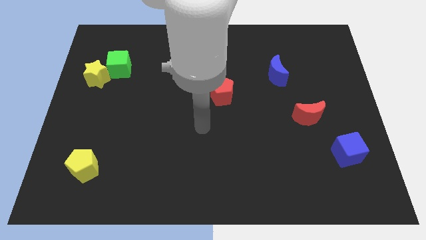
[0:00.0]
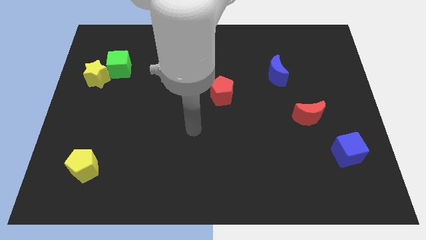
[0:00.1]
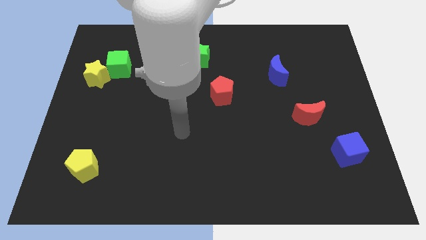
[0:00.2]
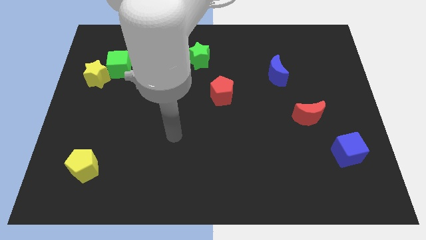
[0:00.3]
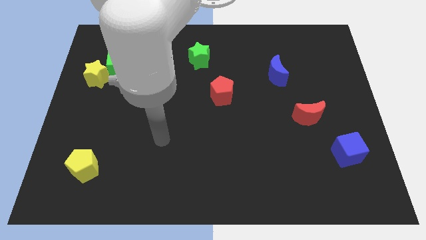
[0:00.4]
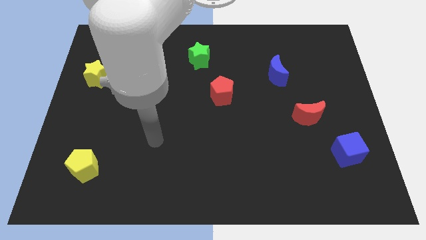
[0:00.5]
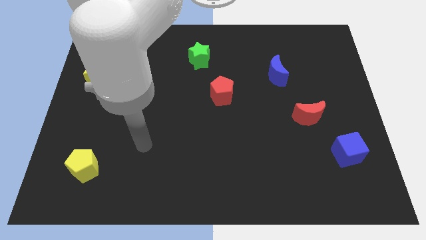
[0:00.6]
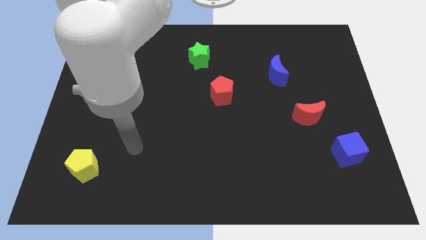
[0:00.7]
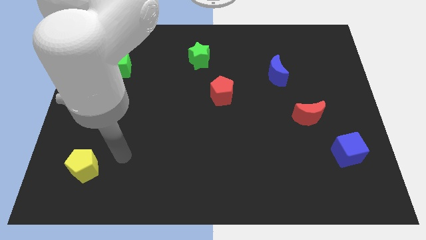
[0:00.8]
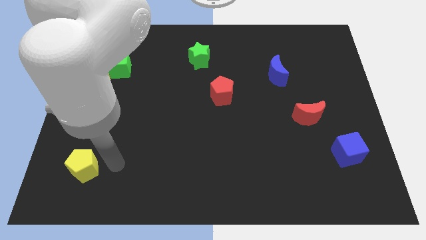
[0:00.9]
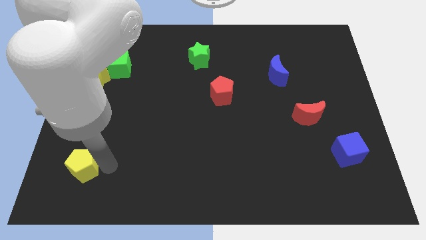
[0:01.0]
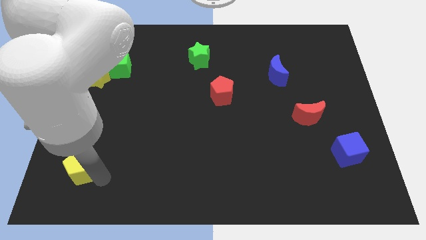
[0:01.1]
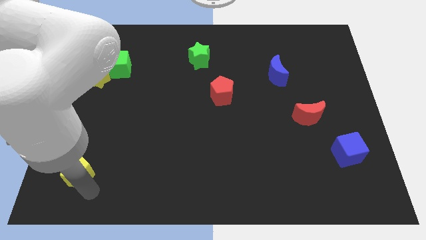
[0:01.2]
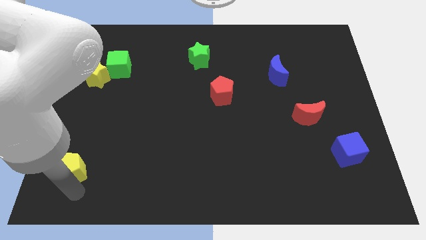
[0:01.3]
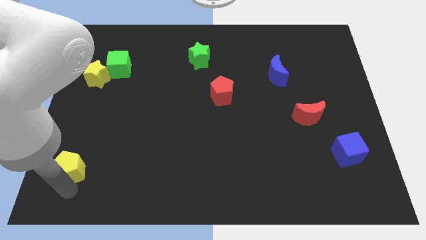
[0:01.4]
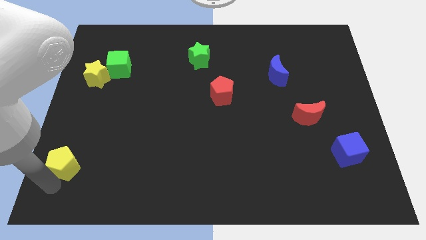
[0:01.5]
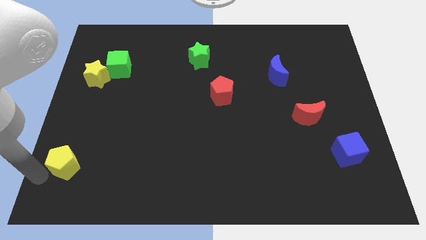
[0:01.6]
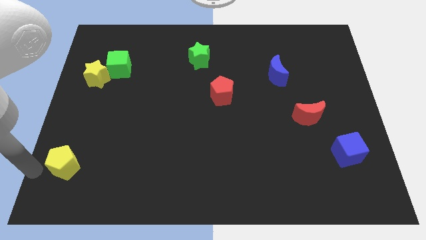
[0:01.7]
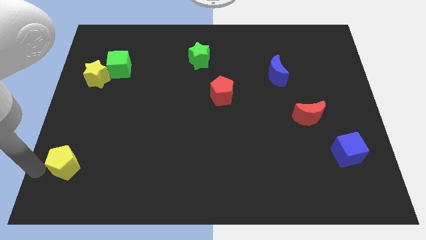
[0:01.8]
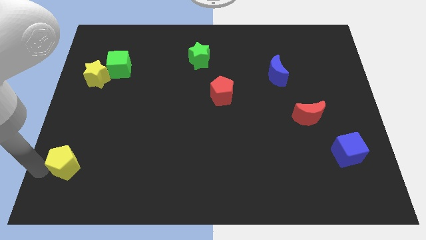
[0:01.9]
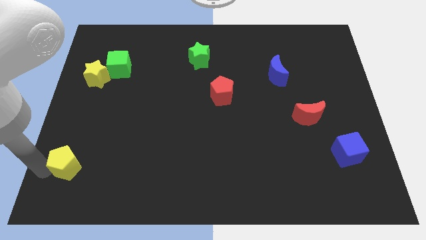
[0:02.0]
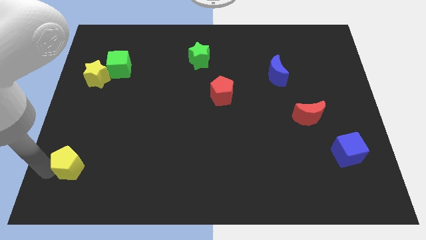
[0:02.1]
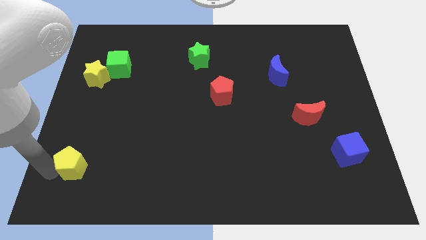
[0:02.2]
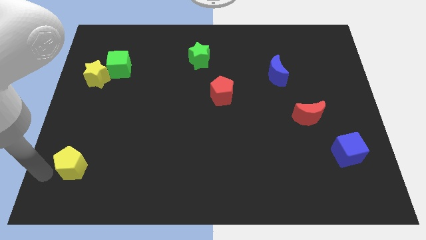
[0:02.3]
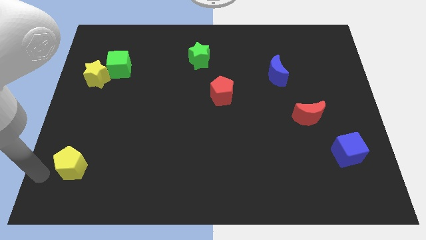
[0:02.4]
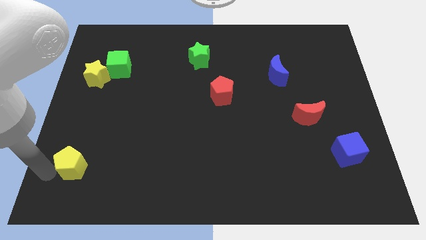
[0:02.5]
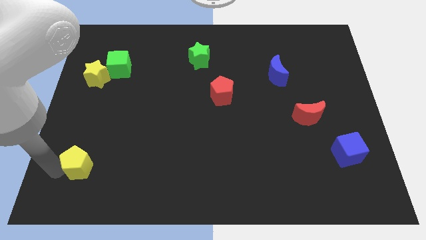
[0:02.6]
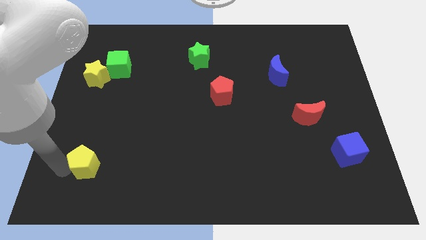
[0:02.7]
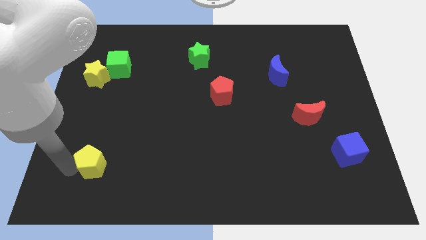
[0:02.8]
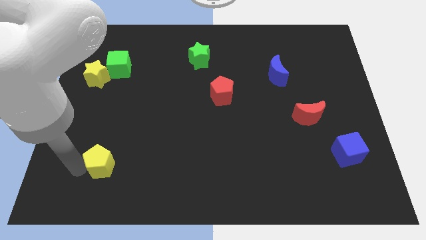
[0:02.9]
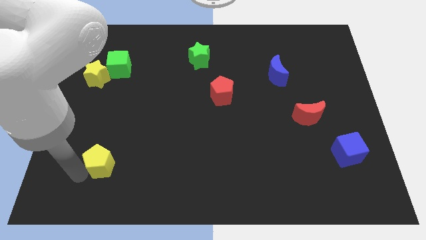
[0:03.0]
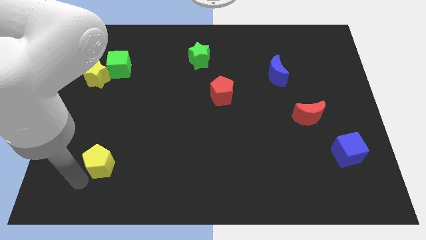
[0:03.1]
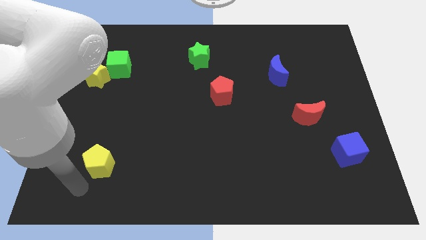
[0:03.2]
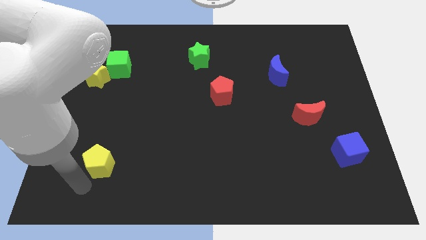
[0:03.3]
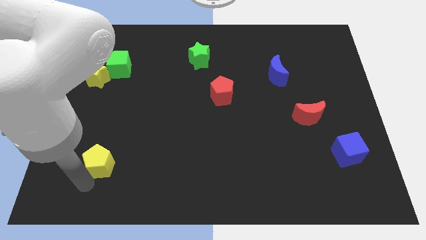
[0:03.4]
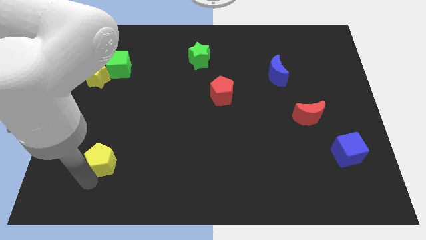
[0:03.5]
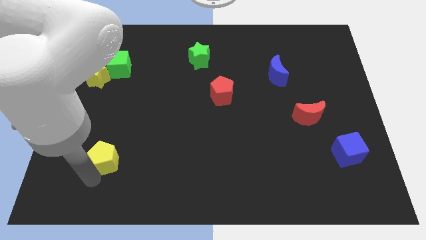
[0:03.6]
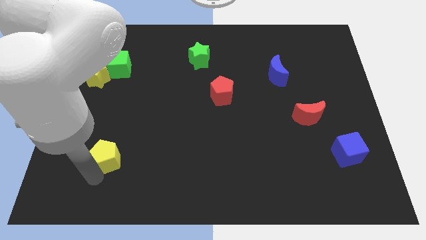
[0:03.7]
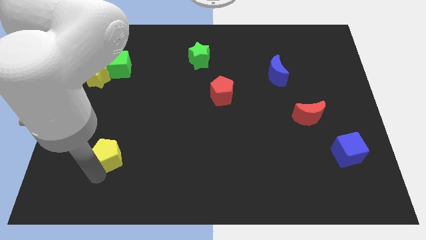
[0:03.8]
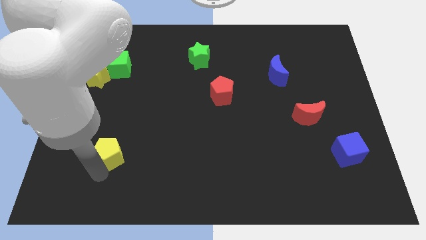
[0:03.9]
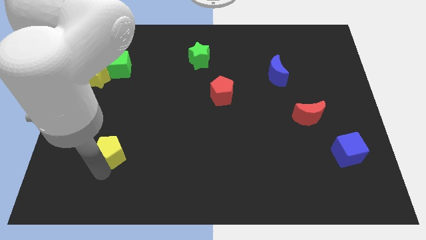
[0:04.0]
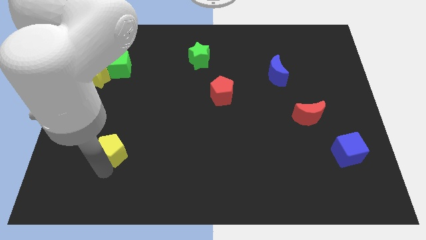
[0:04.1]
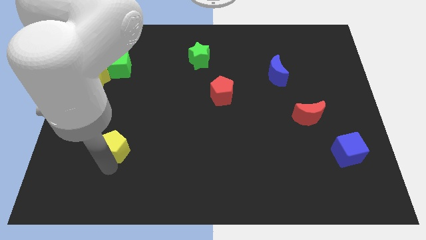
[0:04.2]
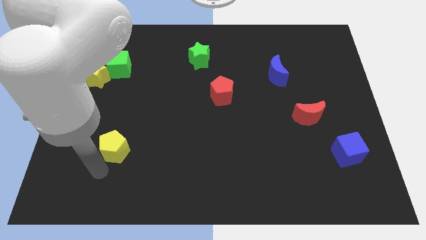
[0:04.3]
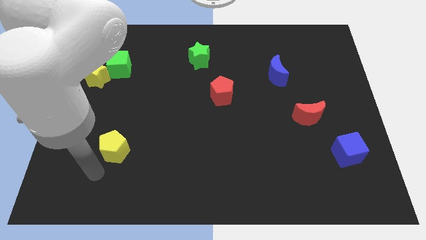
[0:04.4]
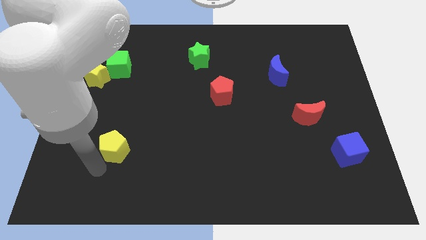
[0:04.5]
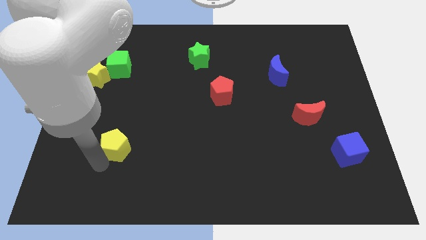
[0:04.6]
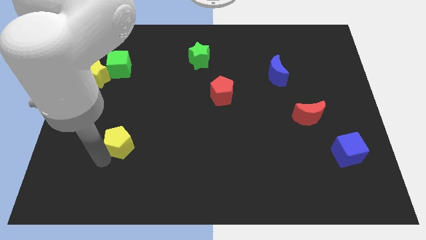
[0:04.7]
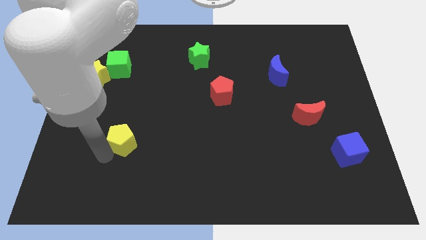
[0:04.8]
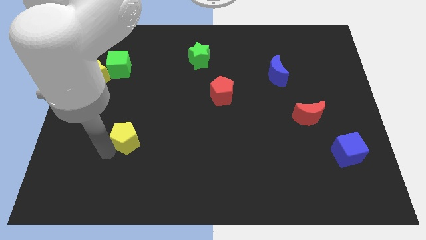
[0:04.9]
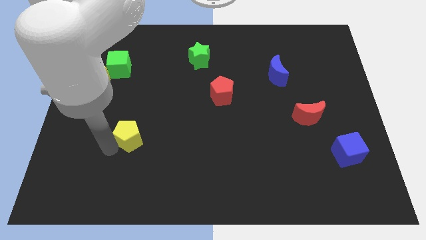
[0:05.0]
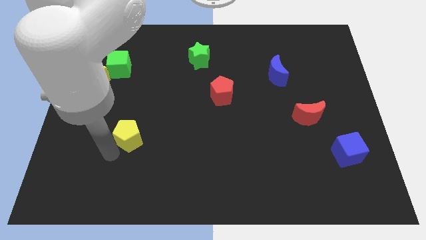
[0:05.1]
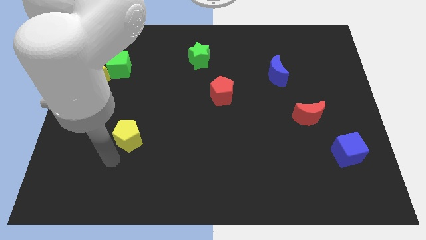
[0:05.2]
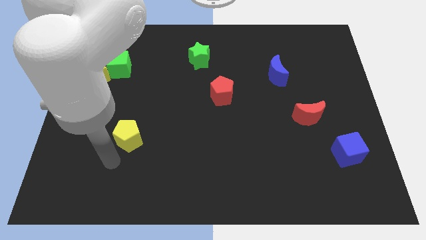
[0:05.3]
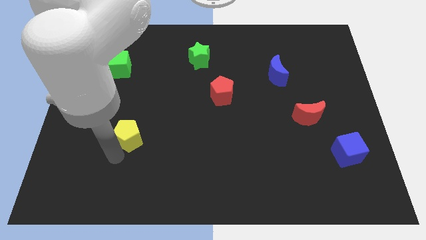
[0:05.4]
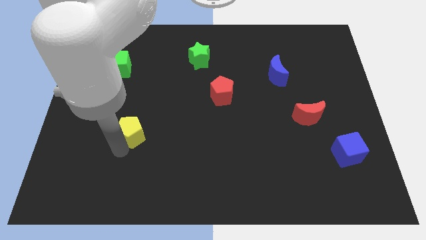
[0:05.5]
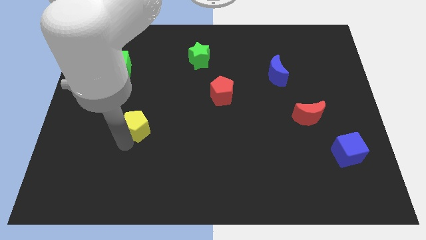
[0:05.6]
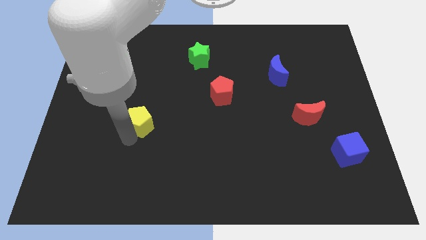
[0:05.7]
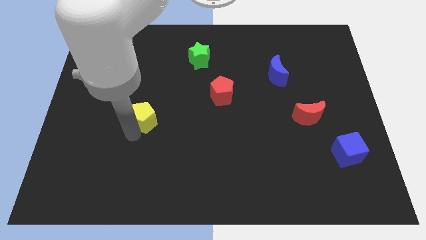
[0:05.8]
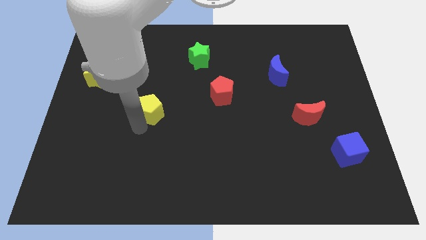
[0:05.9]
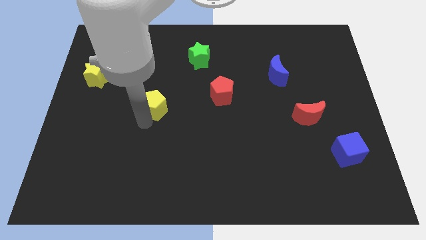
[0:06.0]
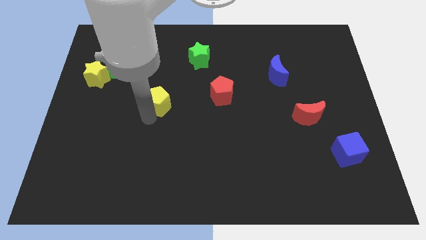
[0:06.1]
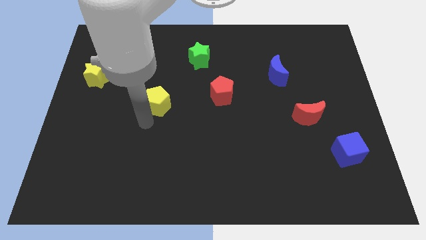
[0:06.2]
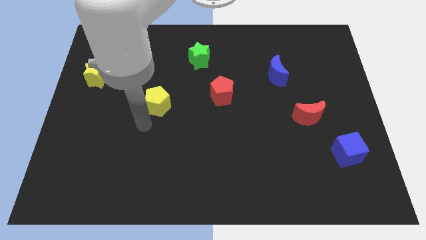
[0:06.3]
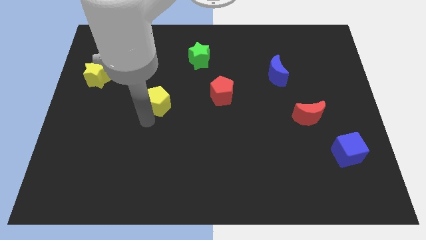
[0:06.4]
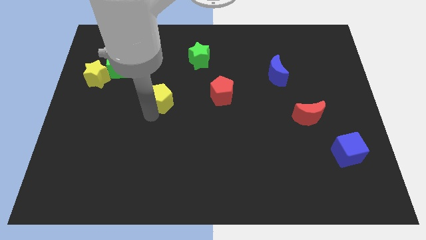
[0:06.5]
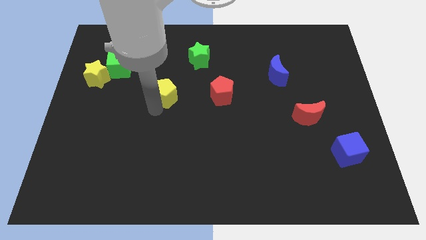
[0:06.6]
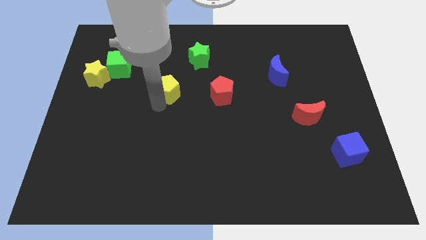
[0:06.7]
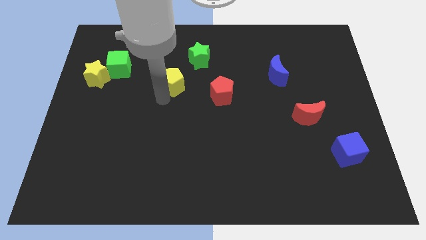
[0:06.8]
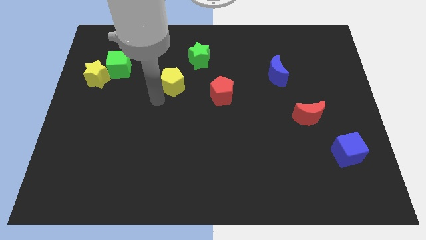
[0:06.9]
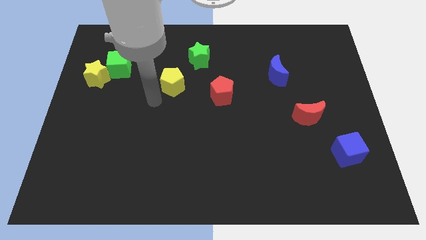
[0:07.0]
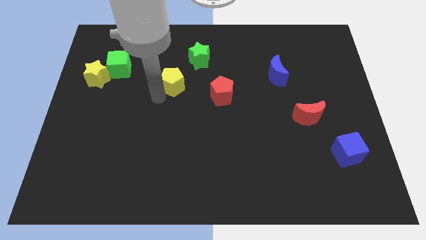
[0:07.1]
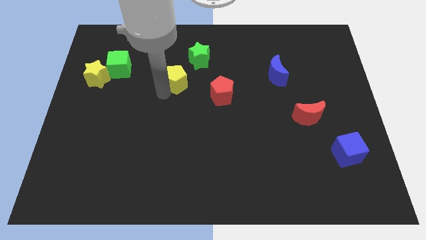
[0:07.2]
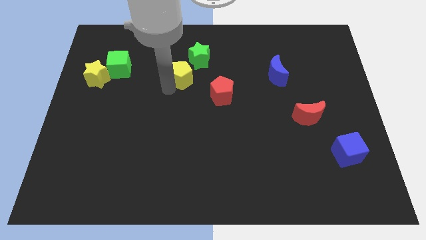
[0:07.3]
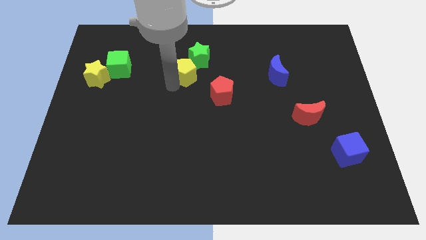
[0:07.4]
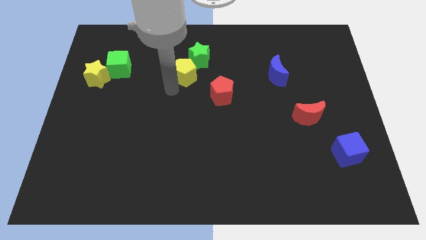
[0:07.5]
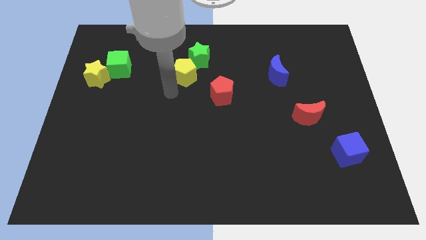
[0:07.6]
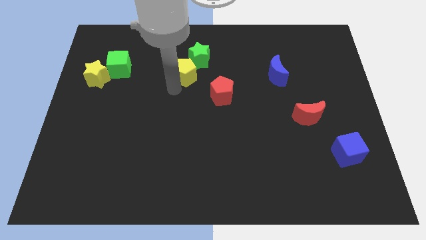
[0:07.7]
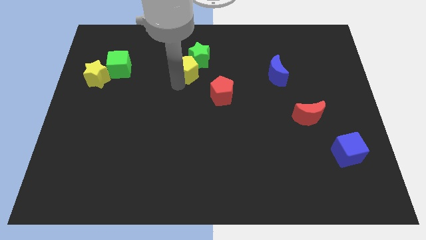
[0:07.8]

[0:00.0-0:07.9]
push the yellow pentagon close to the green star

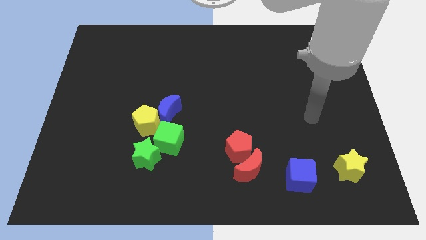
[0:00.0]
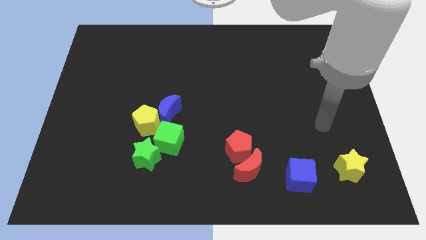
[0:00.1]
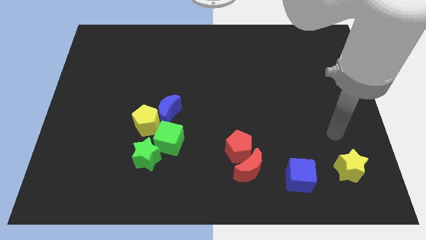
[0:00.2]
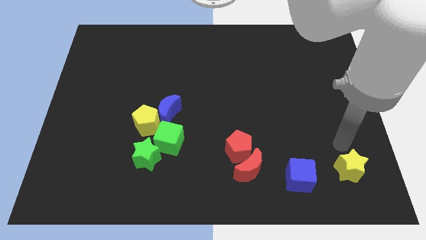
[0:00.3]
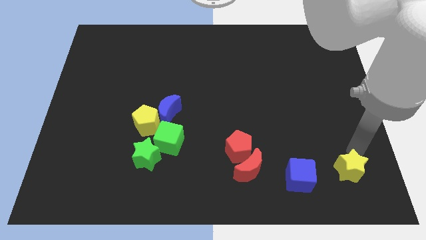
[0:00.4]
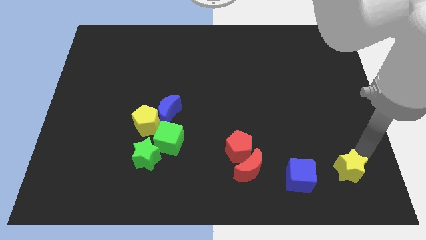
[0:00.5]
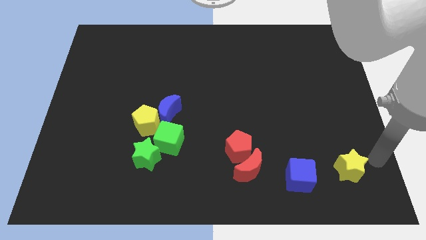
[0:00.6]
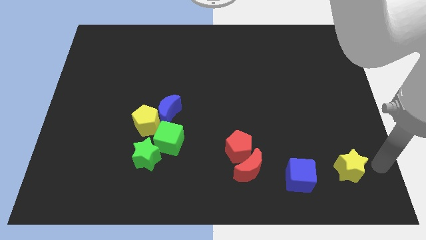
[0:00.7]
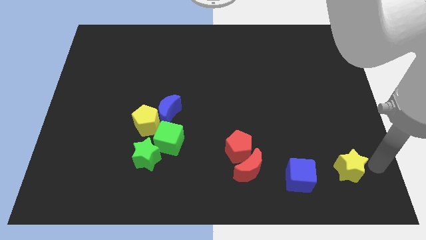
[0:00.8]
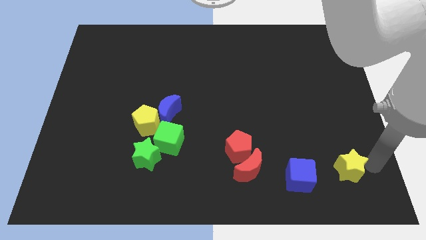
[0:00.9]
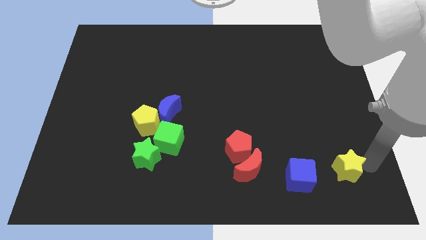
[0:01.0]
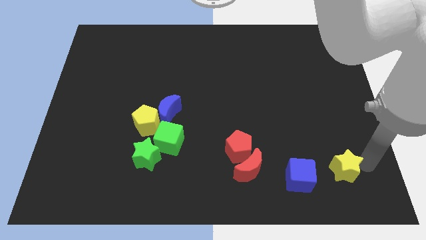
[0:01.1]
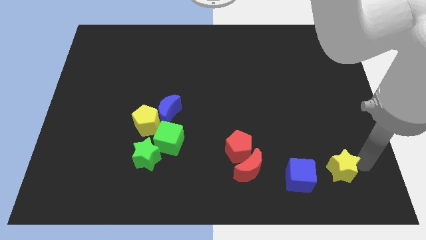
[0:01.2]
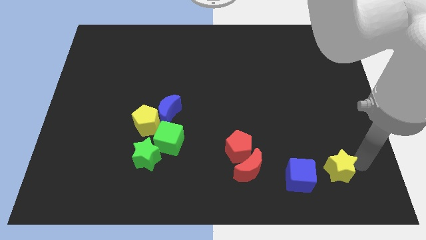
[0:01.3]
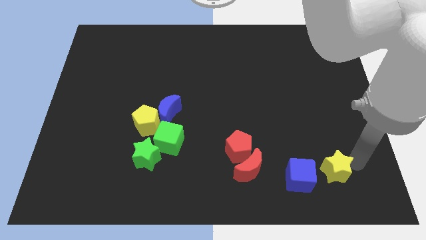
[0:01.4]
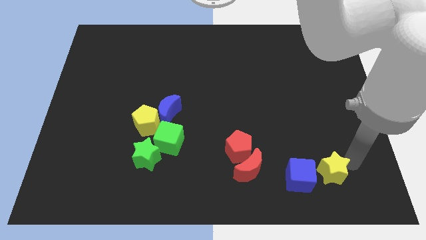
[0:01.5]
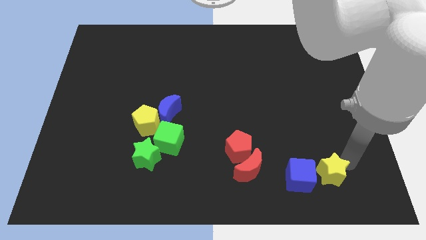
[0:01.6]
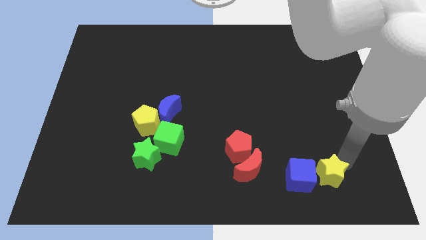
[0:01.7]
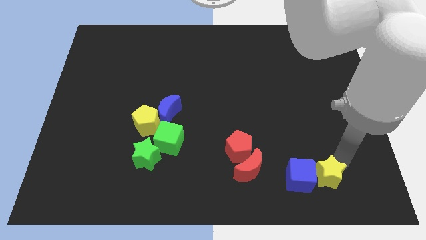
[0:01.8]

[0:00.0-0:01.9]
put the yellow star to the blue cube
